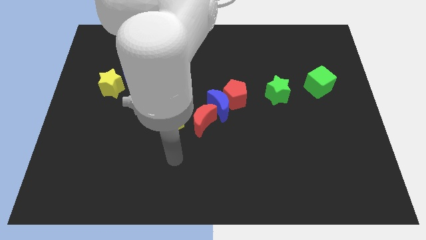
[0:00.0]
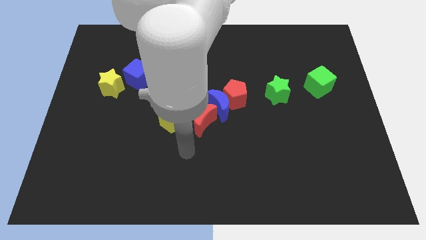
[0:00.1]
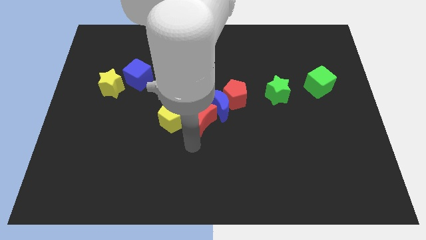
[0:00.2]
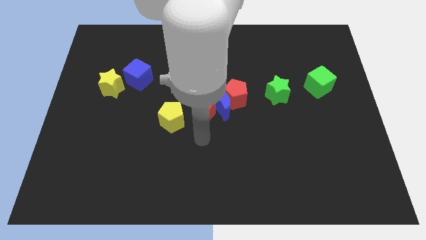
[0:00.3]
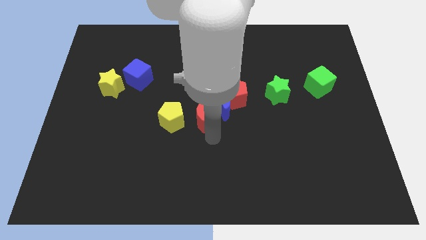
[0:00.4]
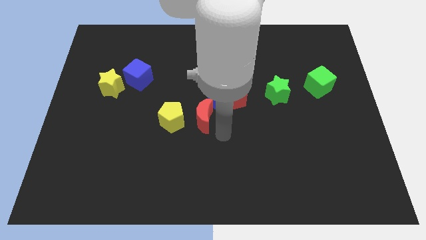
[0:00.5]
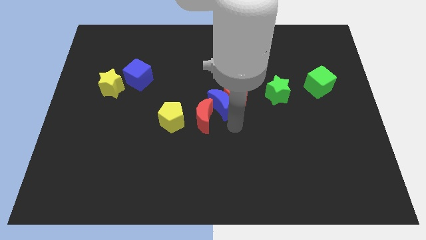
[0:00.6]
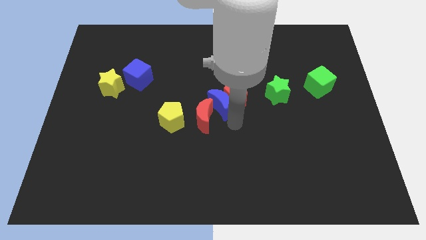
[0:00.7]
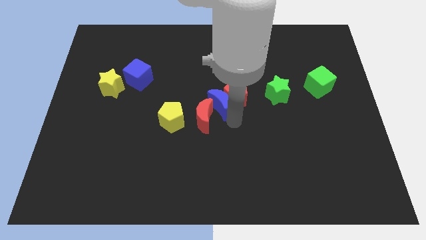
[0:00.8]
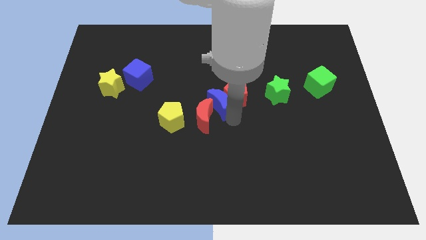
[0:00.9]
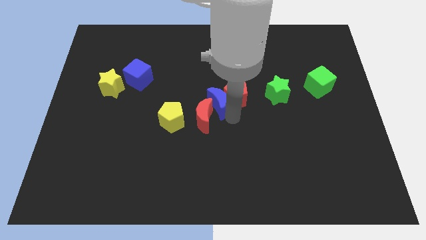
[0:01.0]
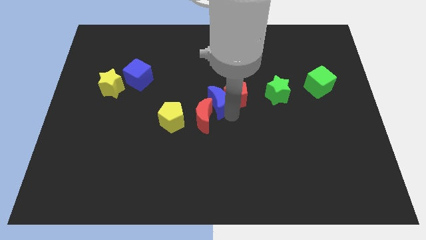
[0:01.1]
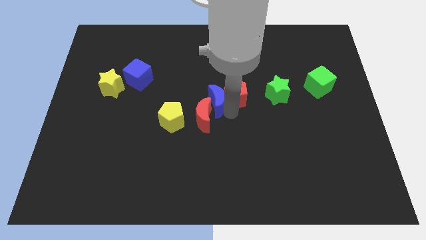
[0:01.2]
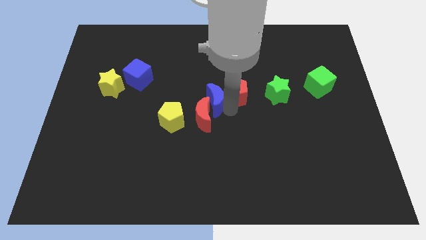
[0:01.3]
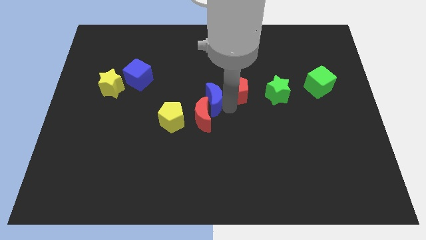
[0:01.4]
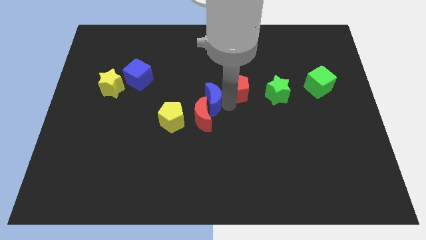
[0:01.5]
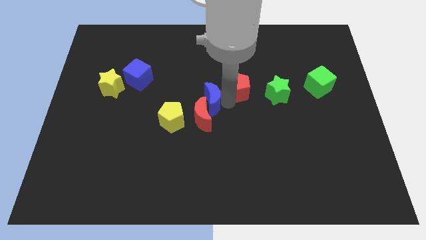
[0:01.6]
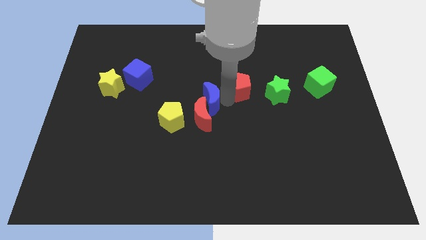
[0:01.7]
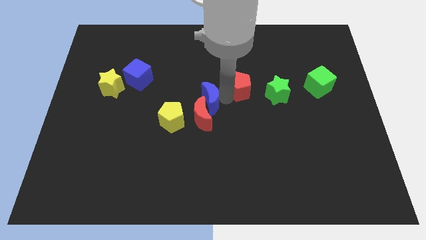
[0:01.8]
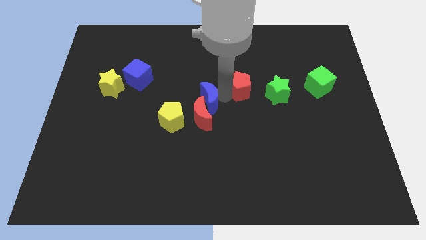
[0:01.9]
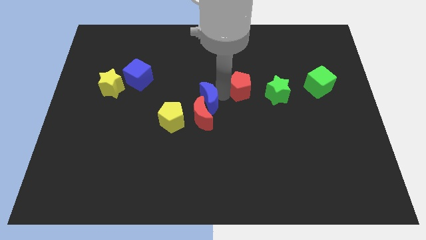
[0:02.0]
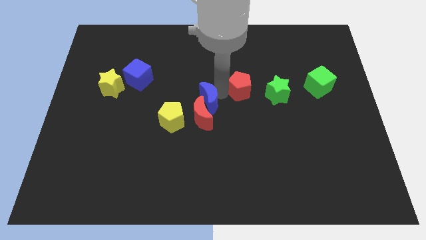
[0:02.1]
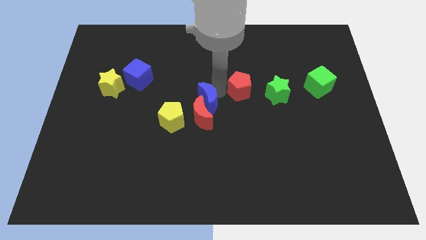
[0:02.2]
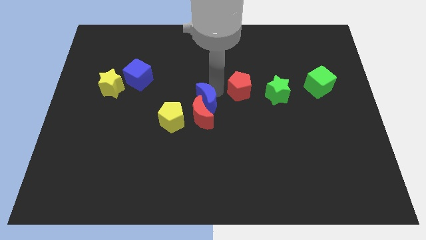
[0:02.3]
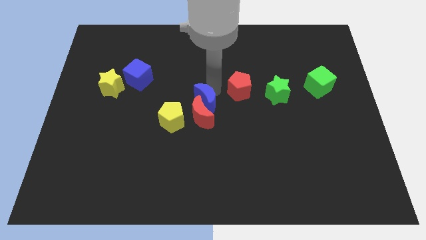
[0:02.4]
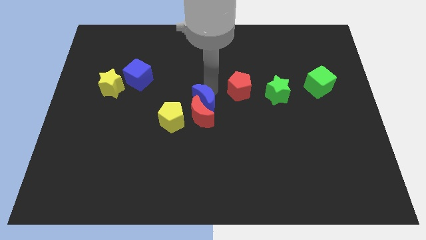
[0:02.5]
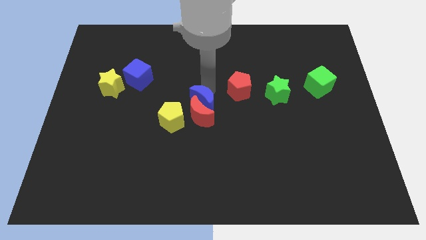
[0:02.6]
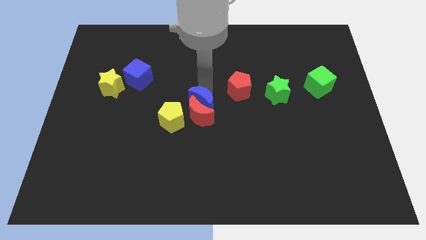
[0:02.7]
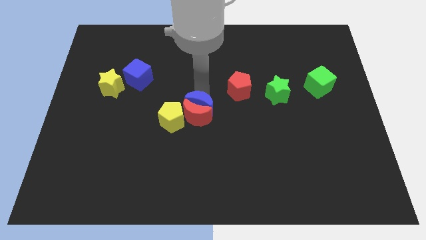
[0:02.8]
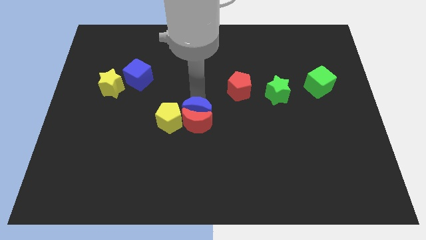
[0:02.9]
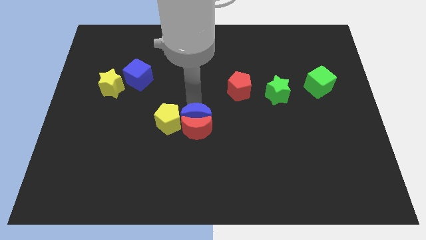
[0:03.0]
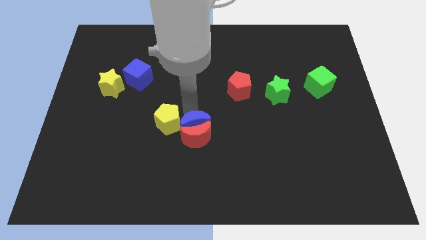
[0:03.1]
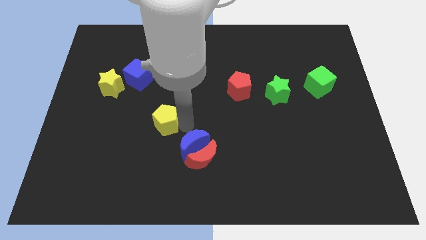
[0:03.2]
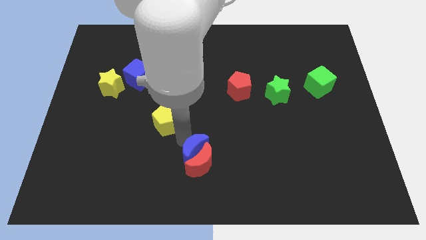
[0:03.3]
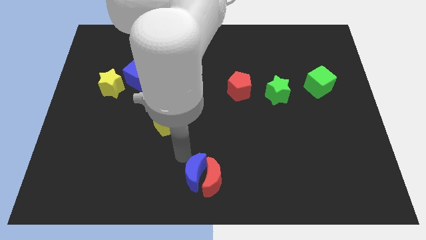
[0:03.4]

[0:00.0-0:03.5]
pull the blue moon apart from the red pentagon and red moon

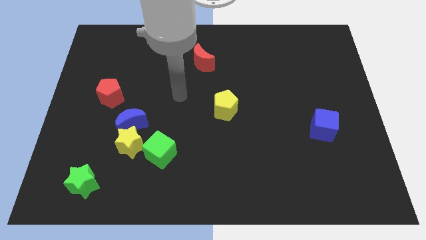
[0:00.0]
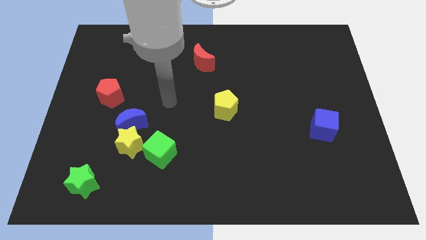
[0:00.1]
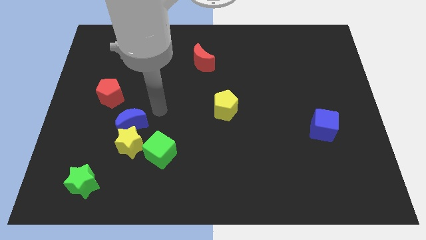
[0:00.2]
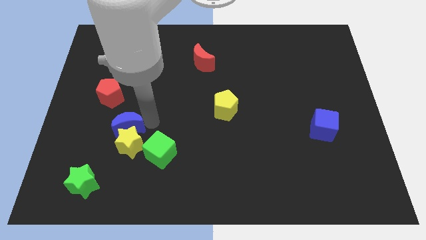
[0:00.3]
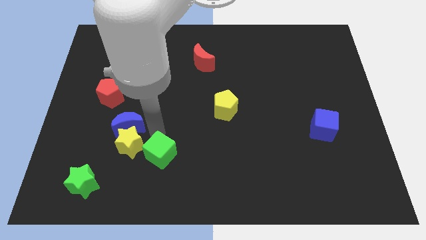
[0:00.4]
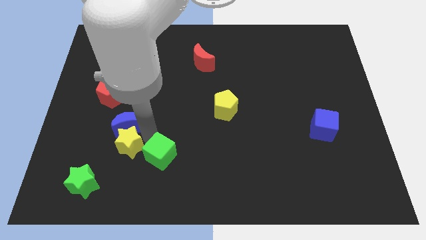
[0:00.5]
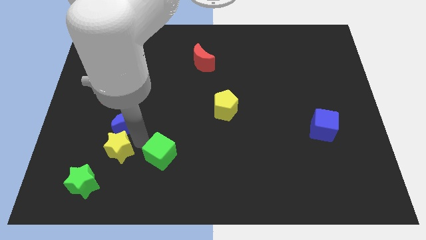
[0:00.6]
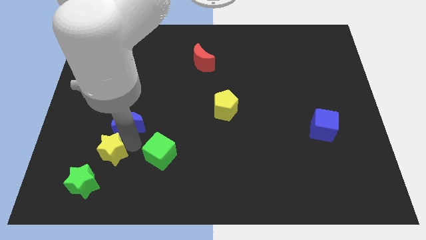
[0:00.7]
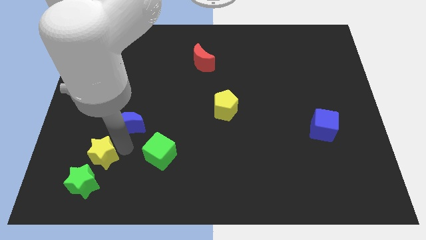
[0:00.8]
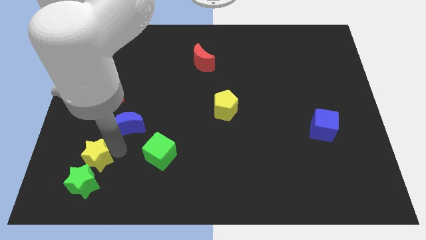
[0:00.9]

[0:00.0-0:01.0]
move the yellow star away from the blue moon and green cube

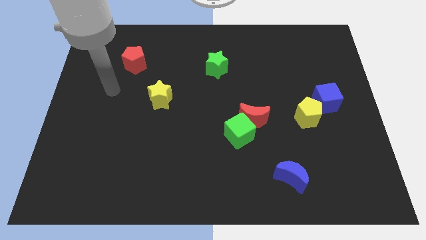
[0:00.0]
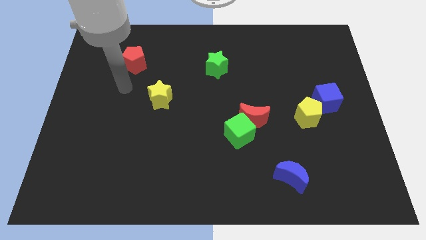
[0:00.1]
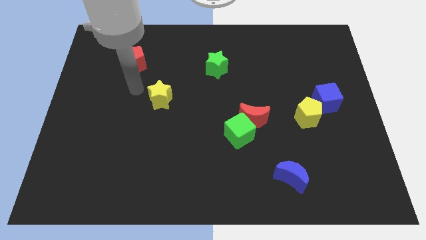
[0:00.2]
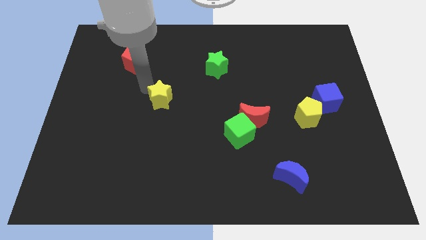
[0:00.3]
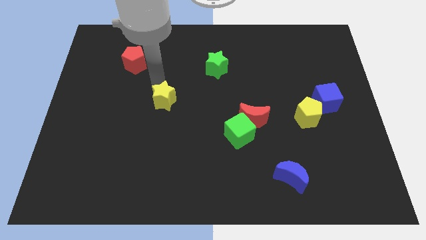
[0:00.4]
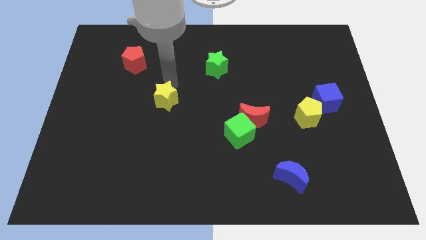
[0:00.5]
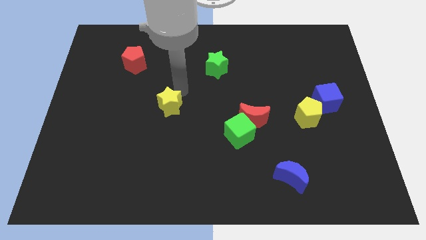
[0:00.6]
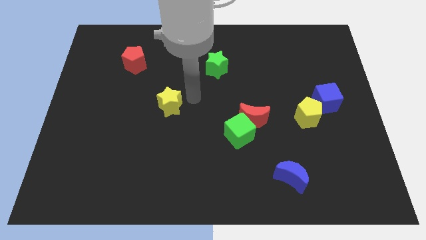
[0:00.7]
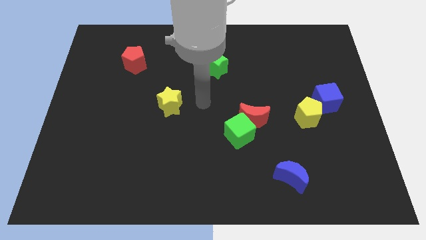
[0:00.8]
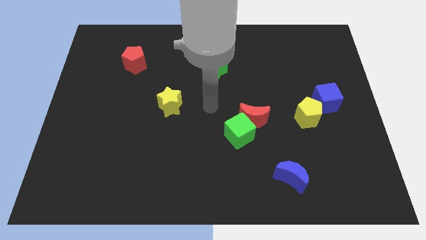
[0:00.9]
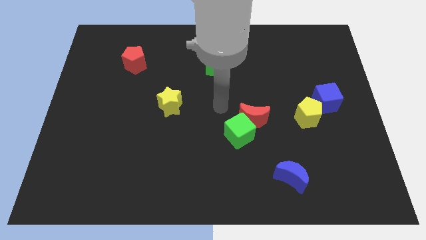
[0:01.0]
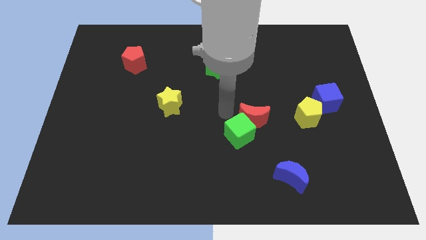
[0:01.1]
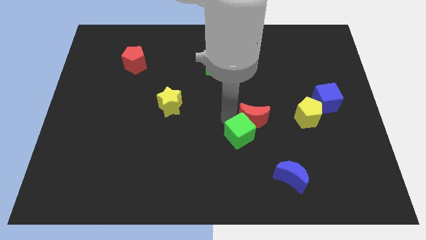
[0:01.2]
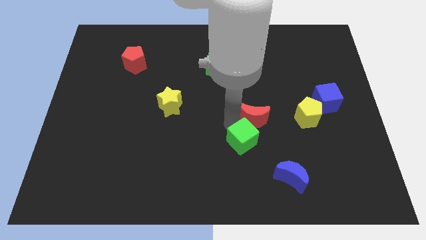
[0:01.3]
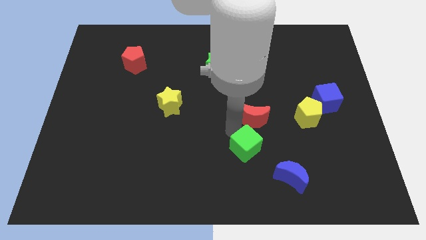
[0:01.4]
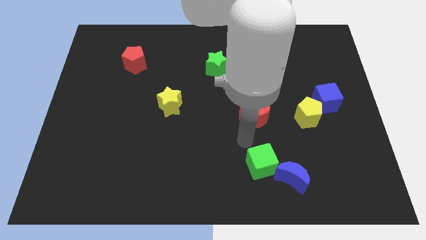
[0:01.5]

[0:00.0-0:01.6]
pull the red moon apart from the green cube

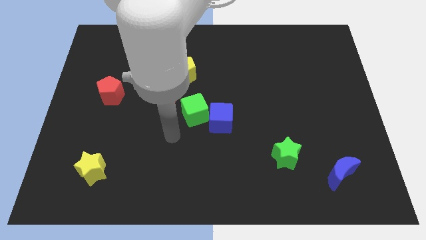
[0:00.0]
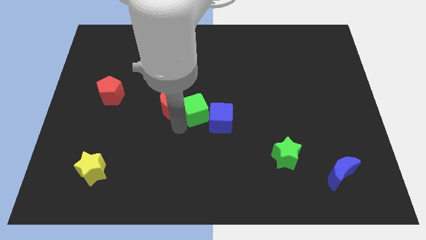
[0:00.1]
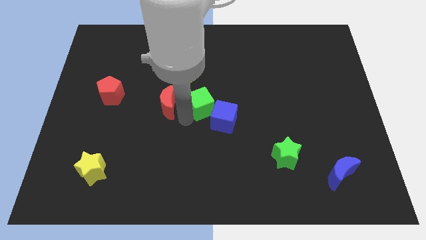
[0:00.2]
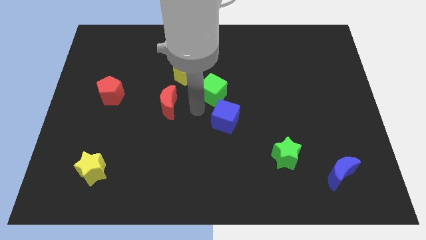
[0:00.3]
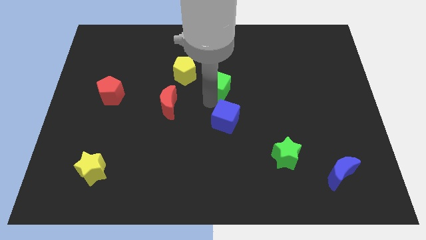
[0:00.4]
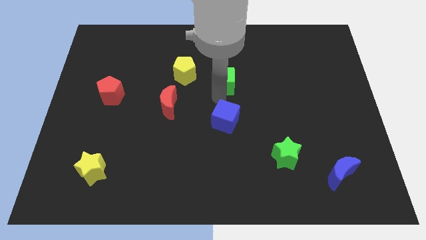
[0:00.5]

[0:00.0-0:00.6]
separate the blue cube from the green cube

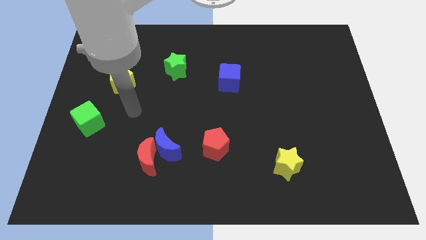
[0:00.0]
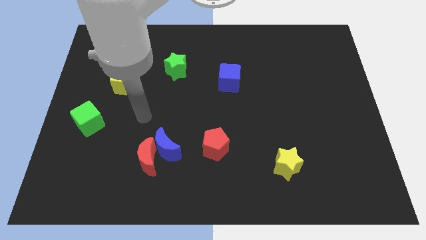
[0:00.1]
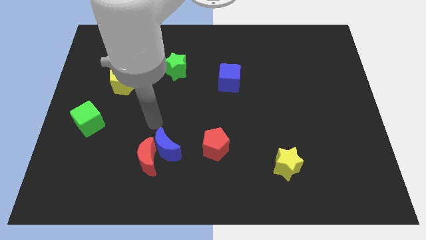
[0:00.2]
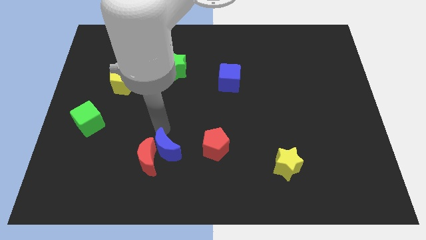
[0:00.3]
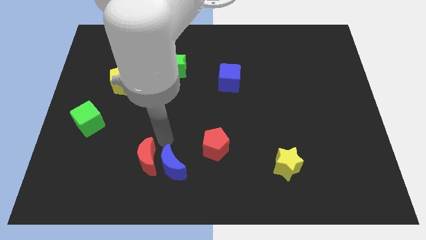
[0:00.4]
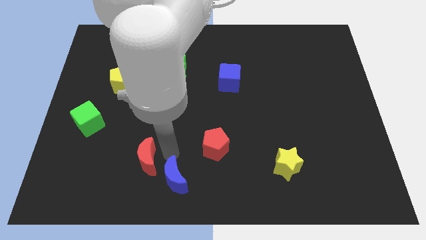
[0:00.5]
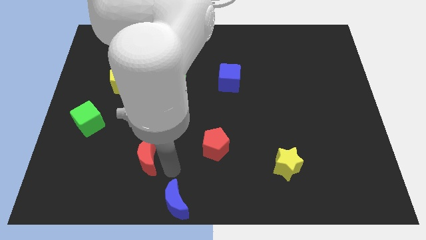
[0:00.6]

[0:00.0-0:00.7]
move the red moon away from the blue moon

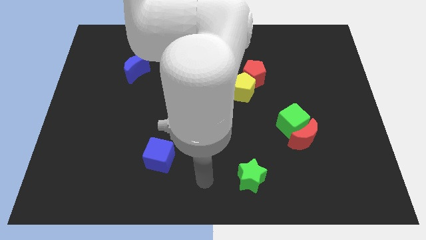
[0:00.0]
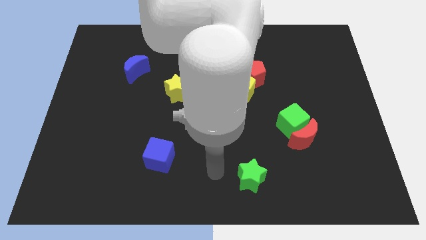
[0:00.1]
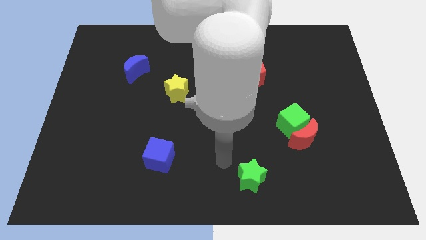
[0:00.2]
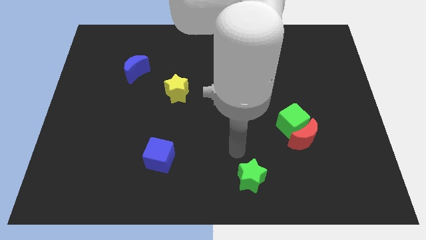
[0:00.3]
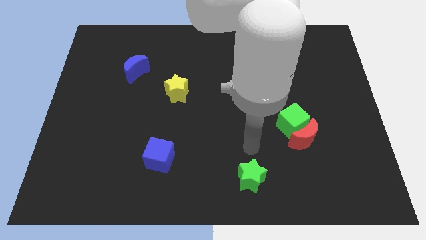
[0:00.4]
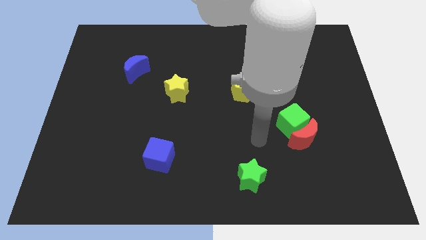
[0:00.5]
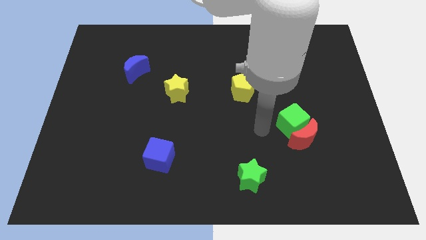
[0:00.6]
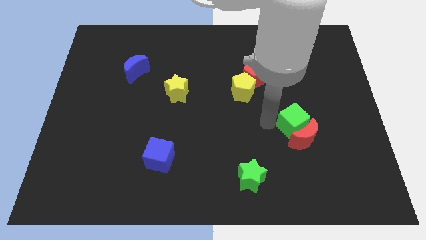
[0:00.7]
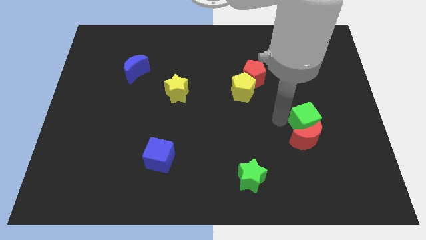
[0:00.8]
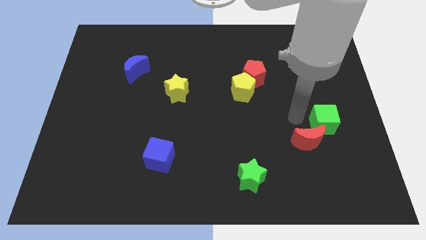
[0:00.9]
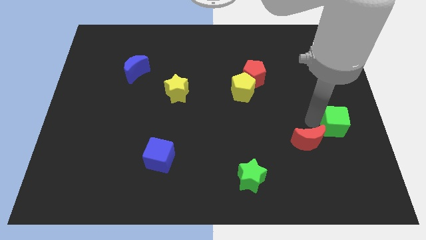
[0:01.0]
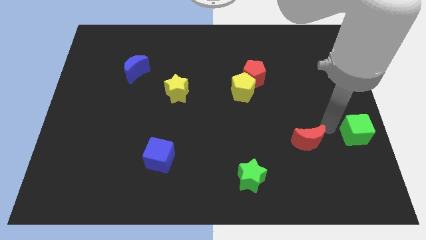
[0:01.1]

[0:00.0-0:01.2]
separate the red moon from the green cube

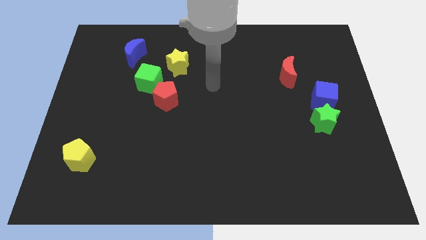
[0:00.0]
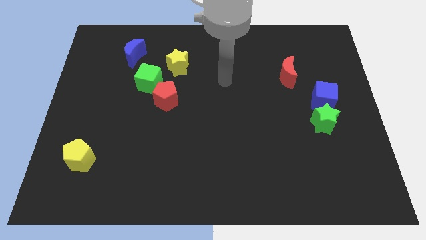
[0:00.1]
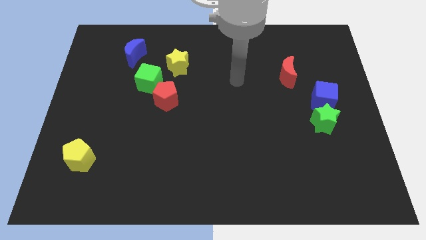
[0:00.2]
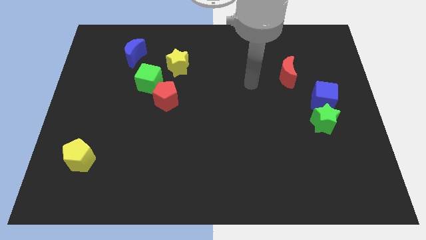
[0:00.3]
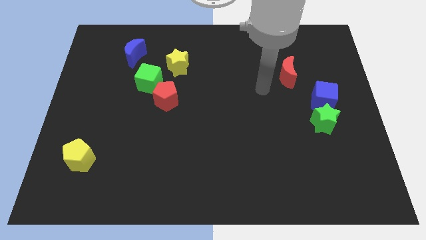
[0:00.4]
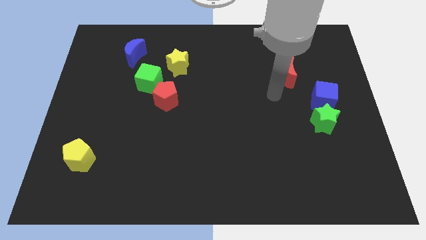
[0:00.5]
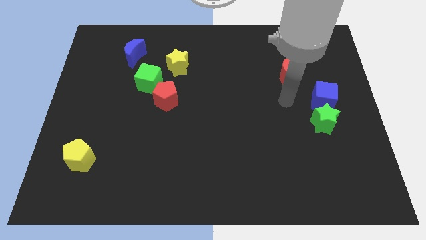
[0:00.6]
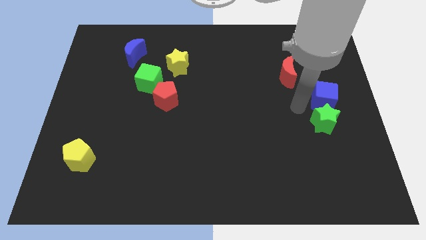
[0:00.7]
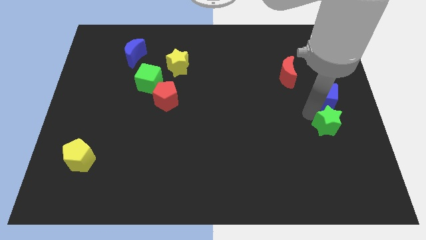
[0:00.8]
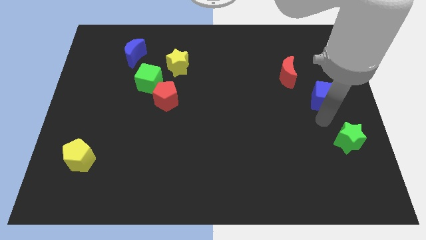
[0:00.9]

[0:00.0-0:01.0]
separate the blue cube from the green star
